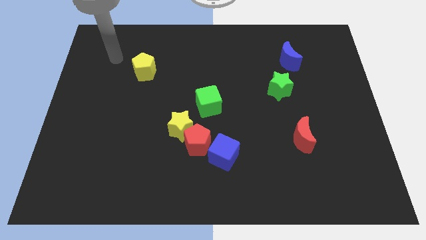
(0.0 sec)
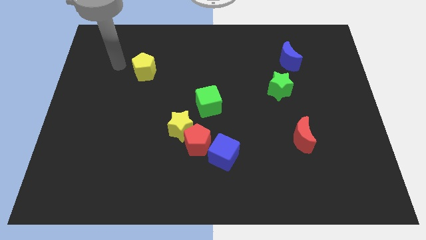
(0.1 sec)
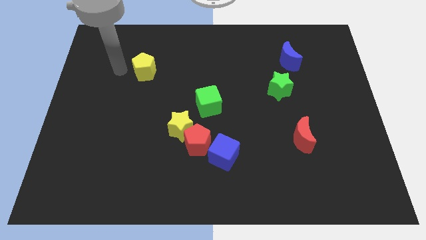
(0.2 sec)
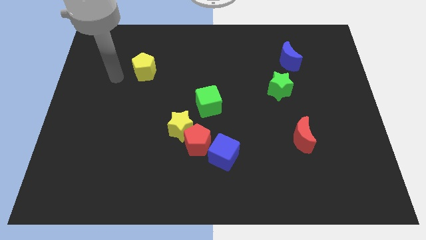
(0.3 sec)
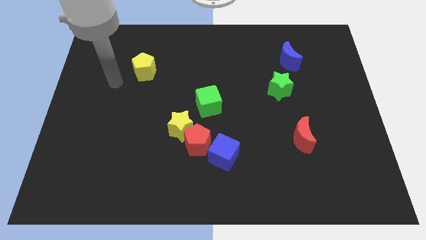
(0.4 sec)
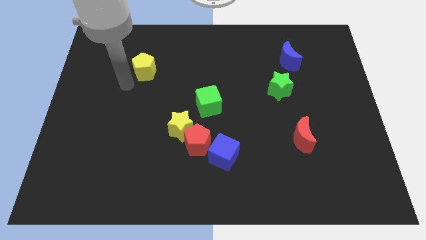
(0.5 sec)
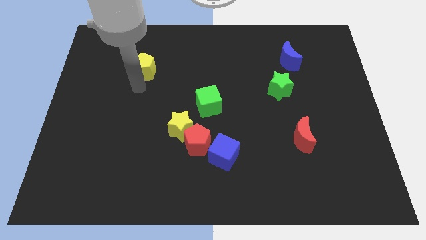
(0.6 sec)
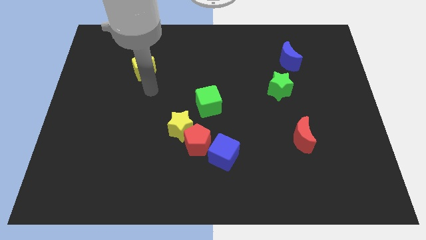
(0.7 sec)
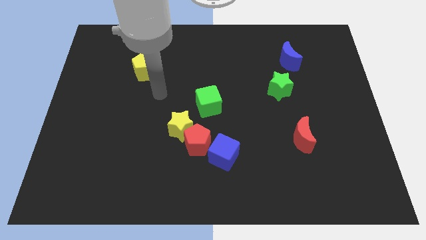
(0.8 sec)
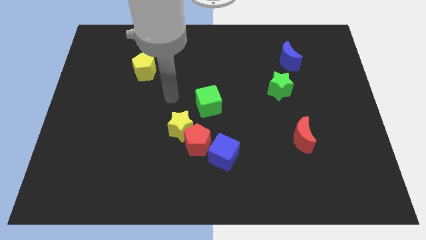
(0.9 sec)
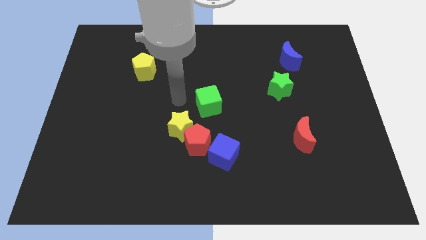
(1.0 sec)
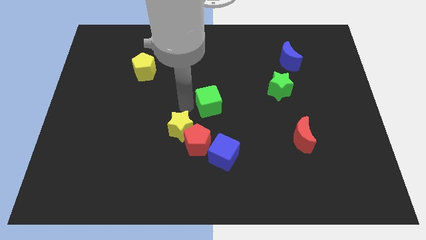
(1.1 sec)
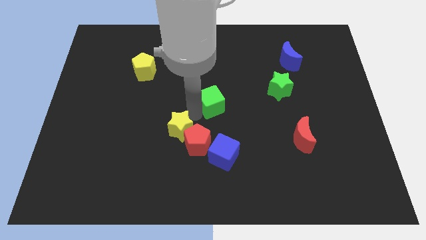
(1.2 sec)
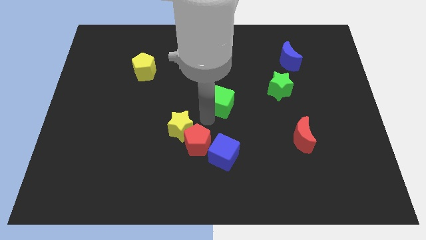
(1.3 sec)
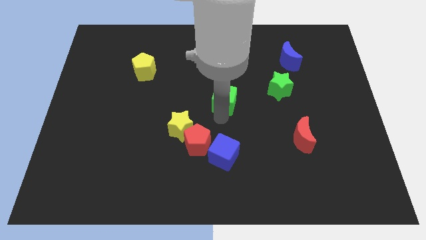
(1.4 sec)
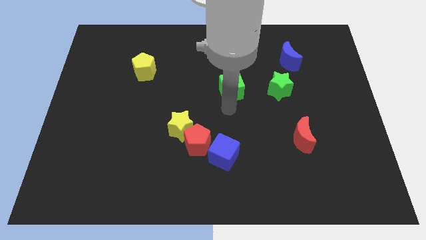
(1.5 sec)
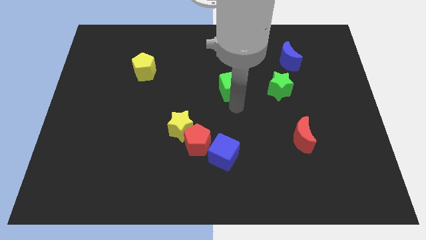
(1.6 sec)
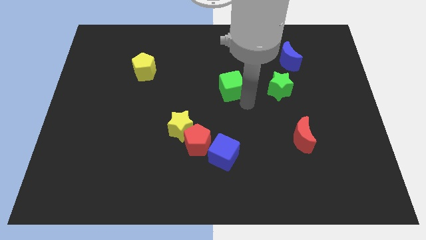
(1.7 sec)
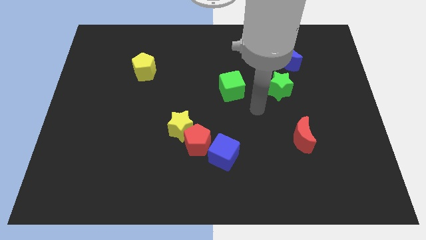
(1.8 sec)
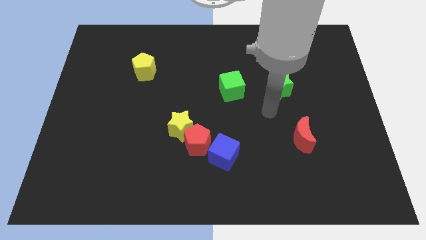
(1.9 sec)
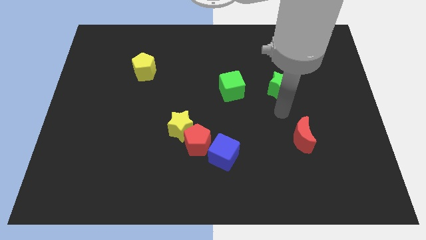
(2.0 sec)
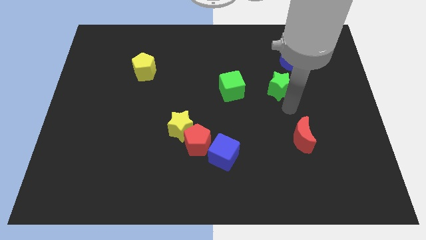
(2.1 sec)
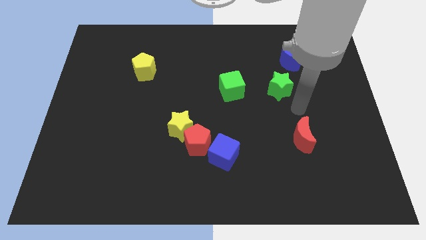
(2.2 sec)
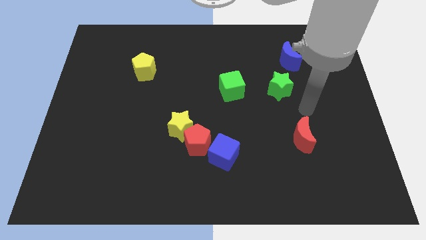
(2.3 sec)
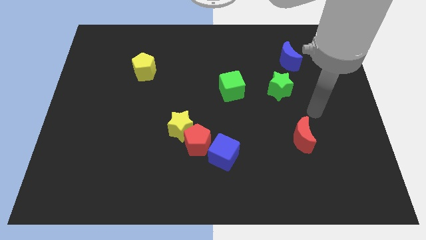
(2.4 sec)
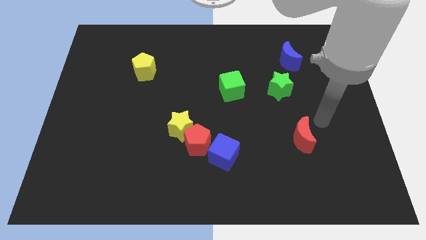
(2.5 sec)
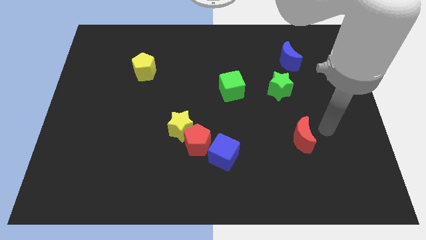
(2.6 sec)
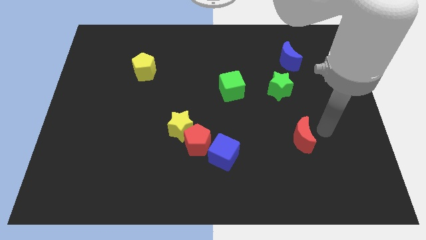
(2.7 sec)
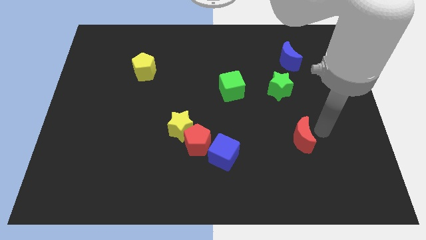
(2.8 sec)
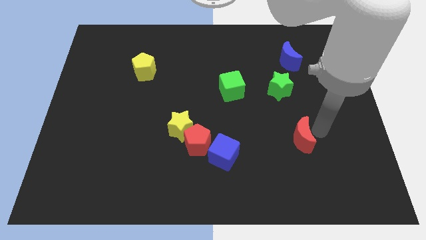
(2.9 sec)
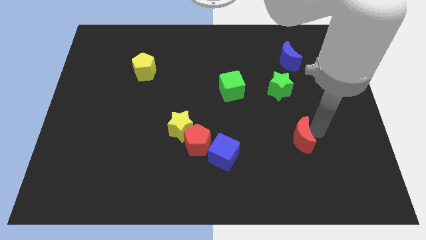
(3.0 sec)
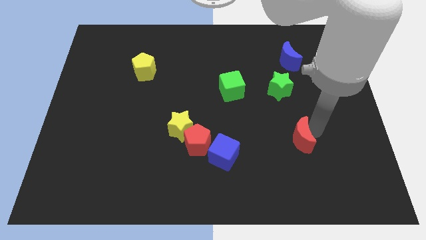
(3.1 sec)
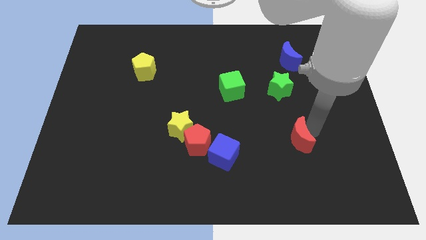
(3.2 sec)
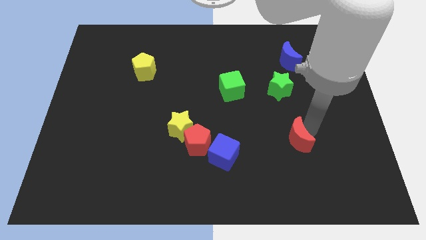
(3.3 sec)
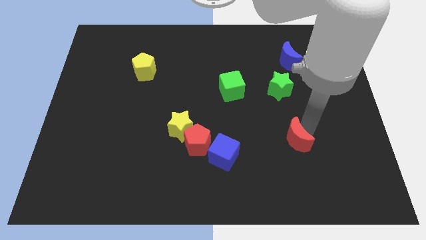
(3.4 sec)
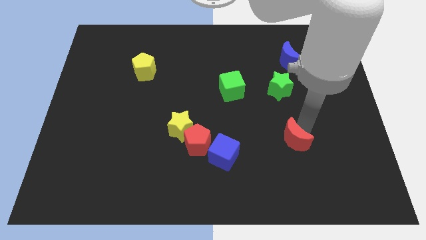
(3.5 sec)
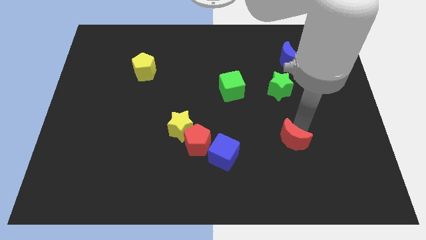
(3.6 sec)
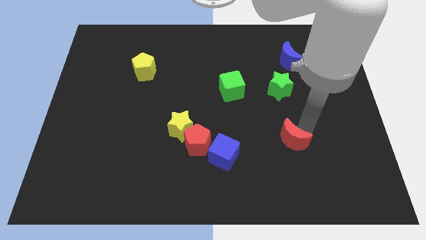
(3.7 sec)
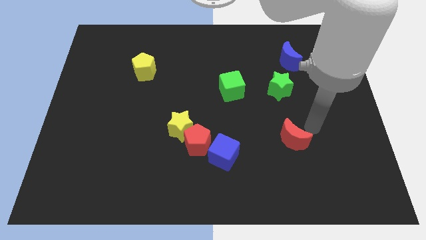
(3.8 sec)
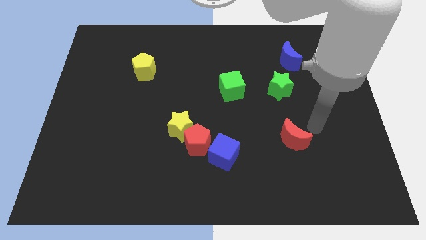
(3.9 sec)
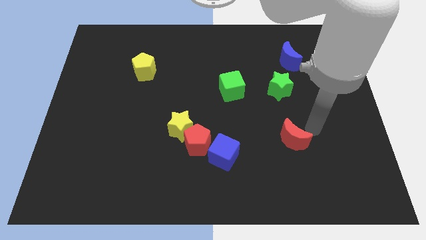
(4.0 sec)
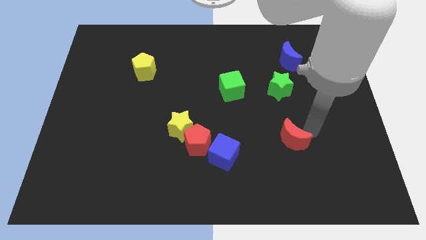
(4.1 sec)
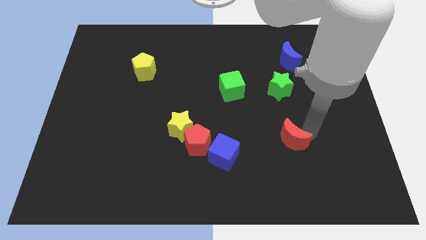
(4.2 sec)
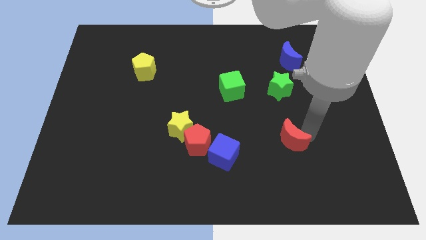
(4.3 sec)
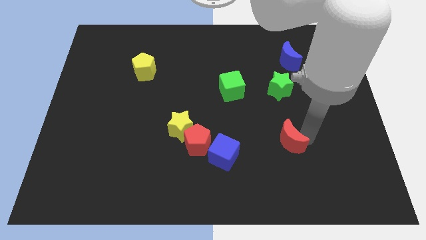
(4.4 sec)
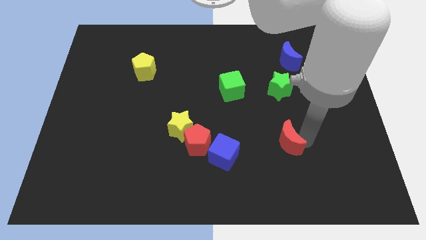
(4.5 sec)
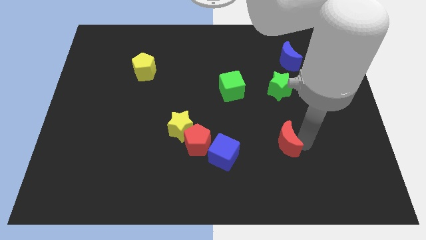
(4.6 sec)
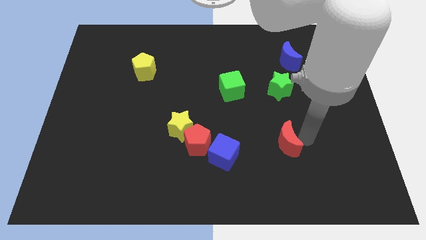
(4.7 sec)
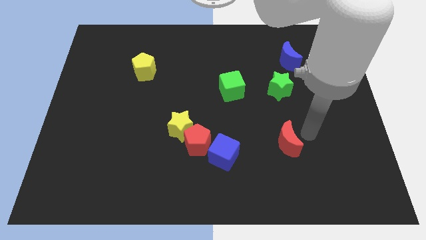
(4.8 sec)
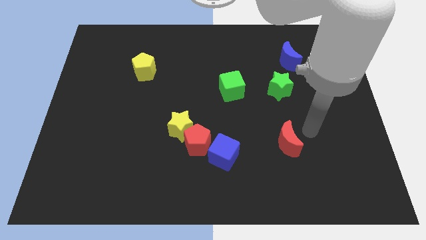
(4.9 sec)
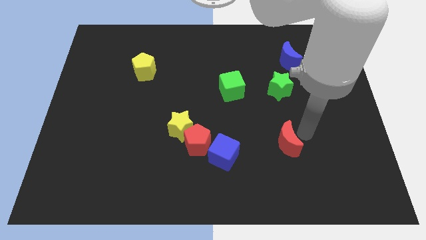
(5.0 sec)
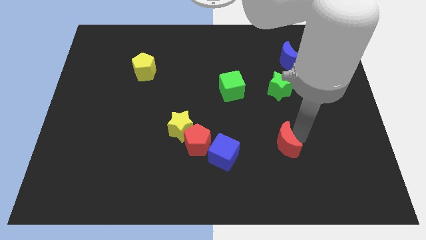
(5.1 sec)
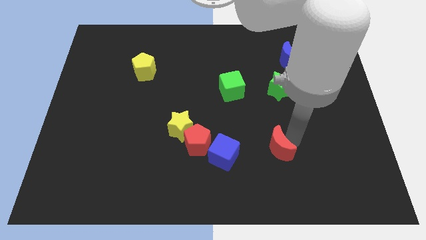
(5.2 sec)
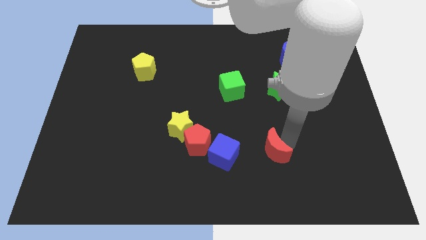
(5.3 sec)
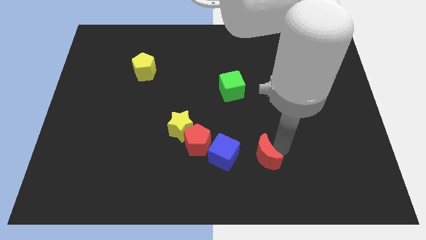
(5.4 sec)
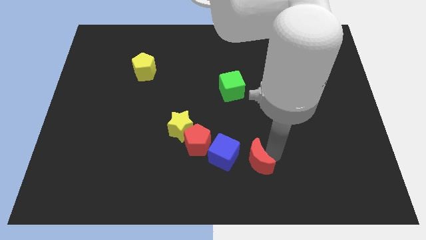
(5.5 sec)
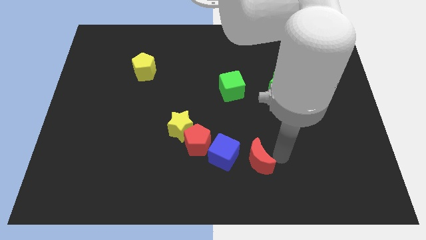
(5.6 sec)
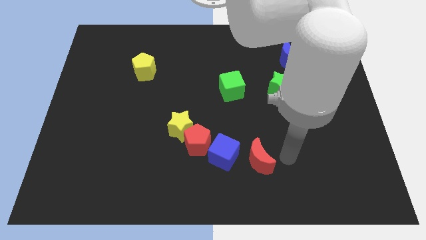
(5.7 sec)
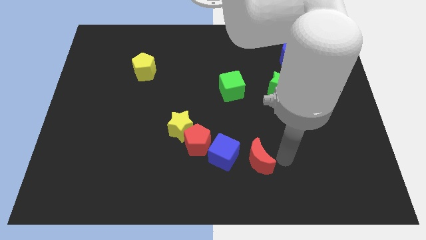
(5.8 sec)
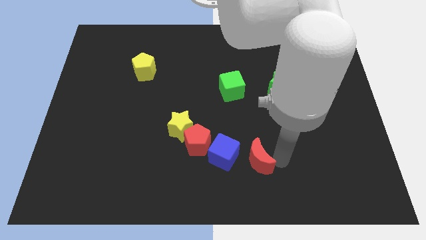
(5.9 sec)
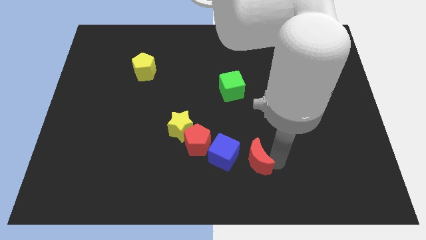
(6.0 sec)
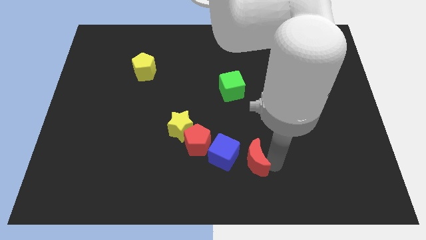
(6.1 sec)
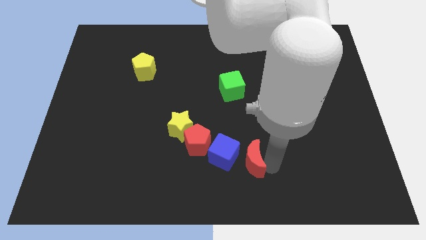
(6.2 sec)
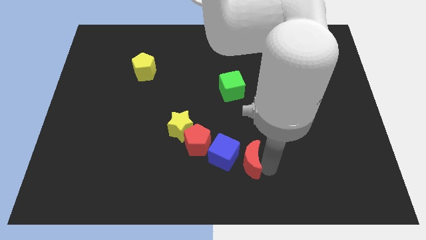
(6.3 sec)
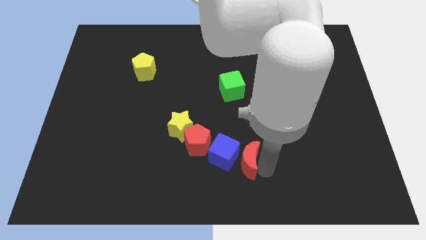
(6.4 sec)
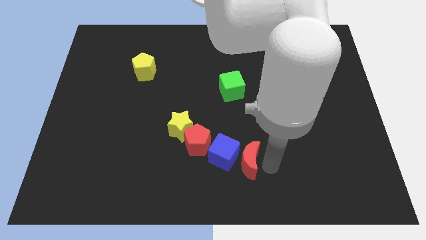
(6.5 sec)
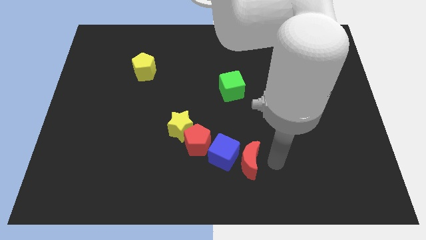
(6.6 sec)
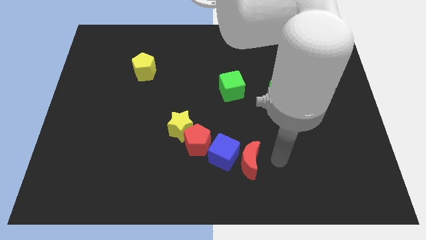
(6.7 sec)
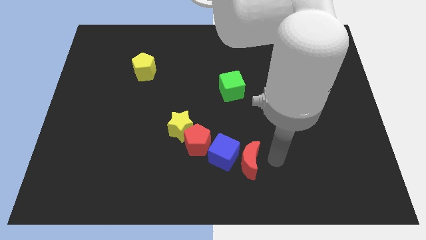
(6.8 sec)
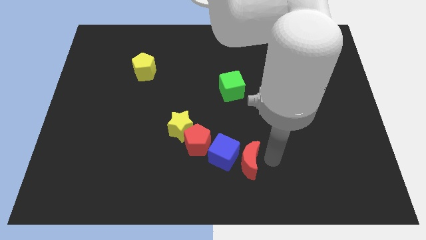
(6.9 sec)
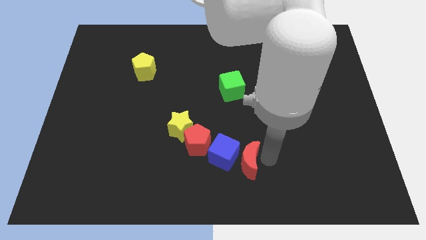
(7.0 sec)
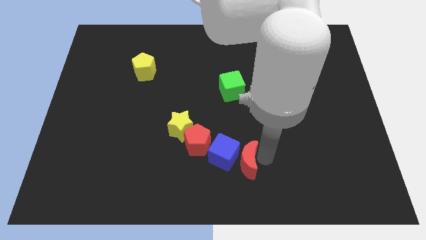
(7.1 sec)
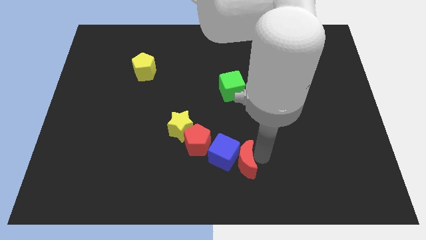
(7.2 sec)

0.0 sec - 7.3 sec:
put the red moon to the bottom right of the red pentagon
